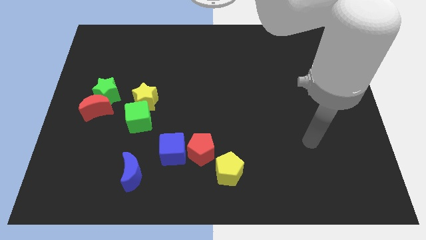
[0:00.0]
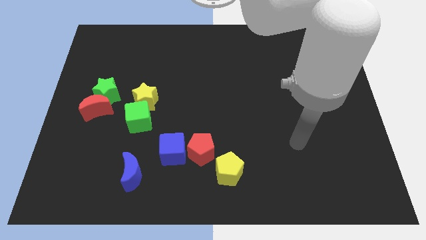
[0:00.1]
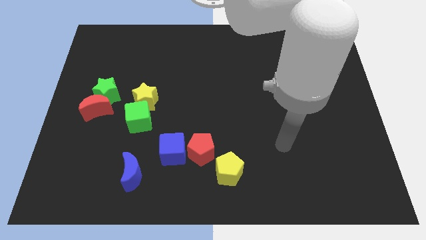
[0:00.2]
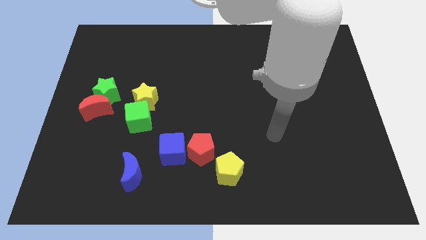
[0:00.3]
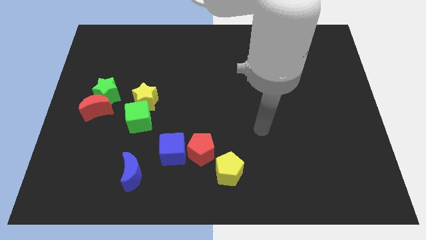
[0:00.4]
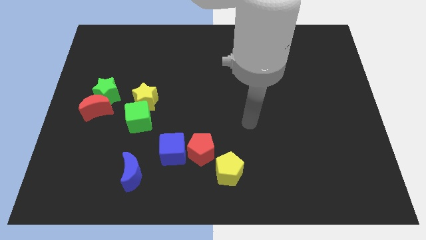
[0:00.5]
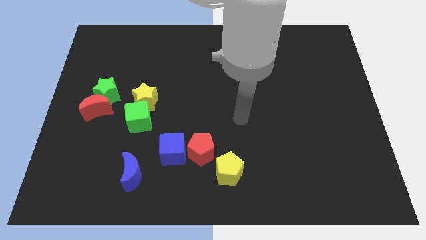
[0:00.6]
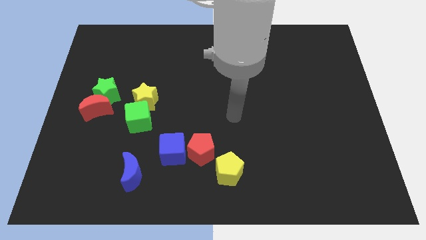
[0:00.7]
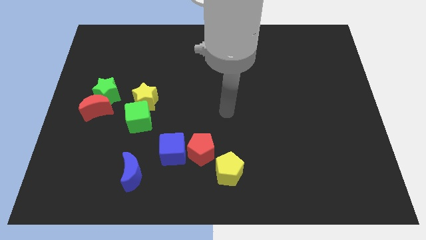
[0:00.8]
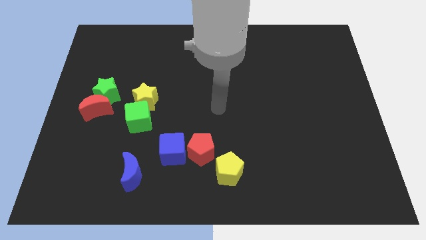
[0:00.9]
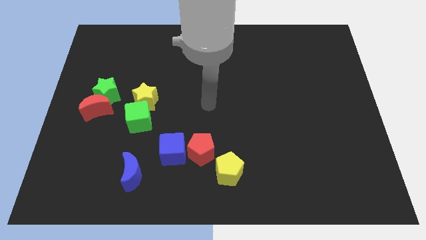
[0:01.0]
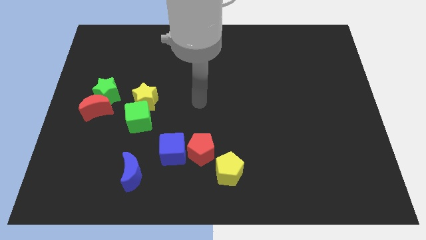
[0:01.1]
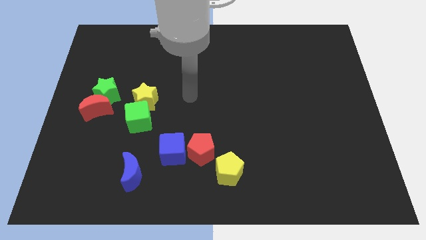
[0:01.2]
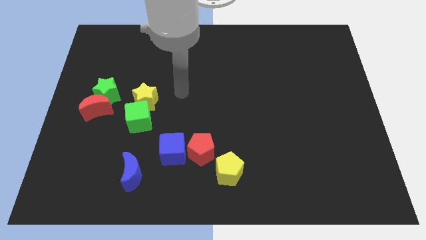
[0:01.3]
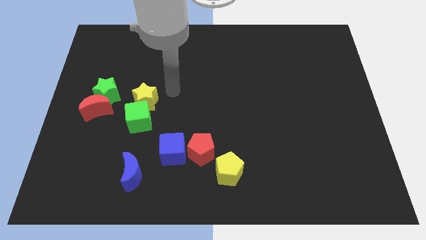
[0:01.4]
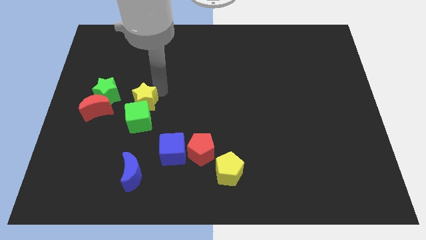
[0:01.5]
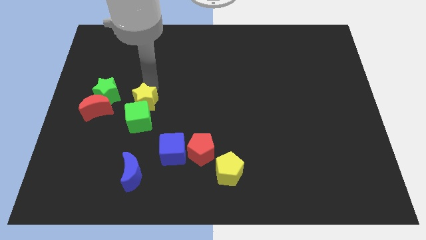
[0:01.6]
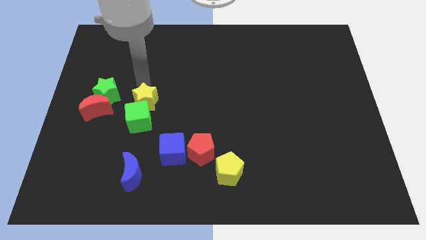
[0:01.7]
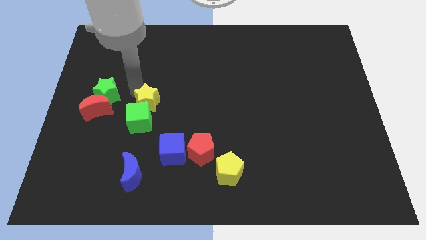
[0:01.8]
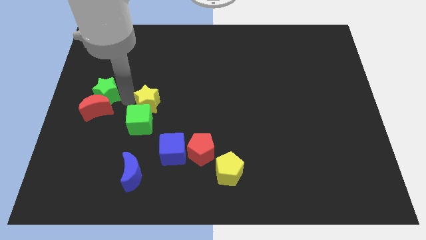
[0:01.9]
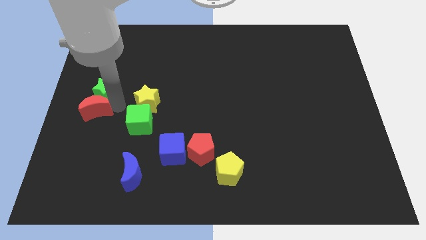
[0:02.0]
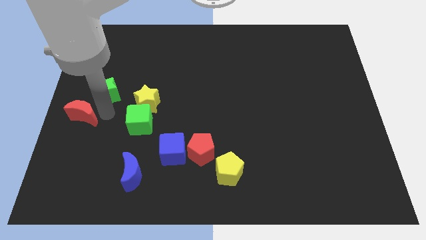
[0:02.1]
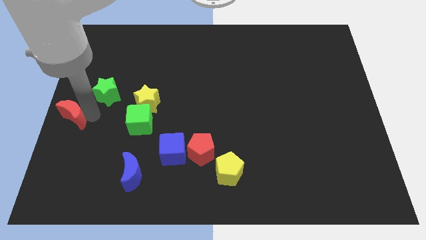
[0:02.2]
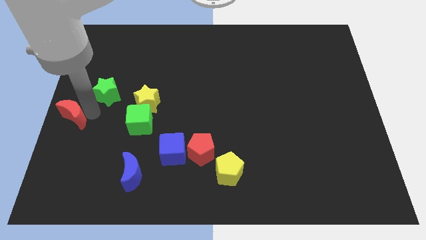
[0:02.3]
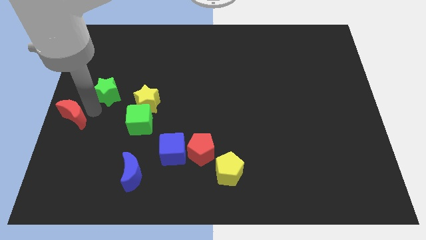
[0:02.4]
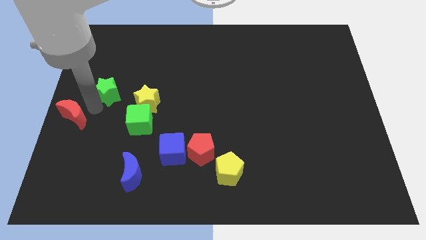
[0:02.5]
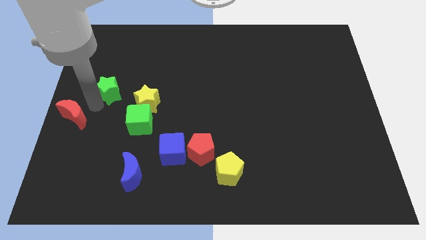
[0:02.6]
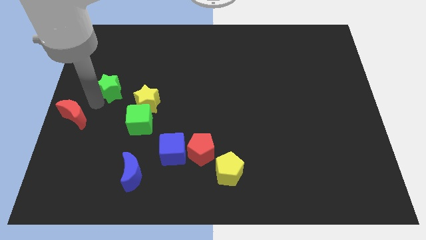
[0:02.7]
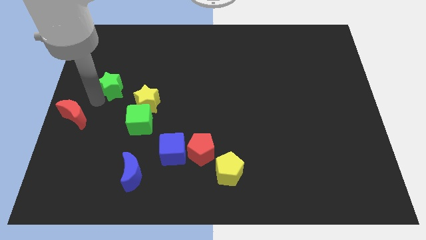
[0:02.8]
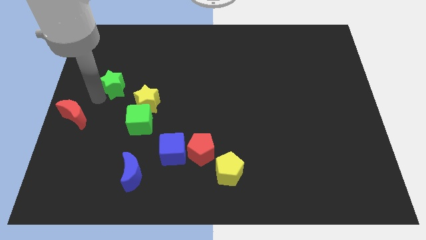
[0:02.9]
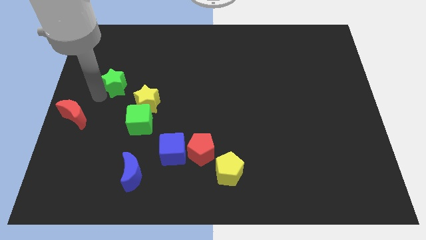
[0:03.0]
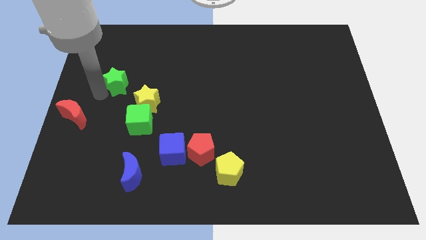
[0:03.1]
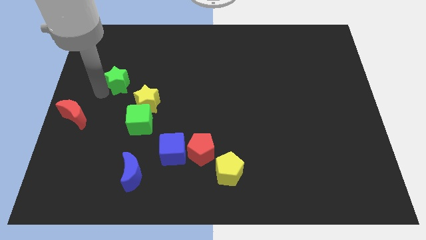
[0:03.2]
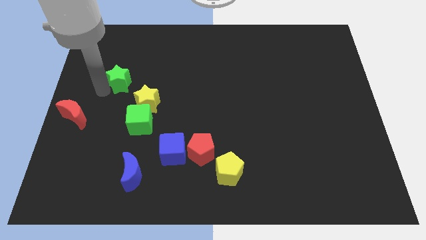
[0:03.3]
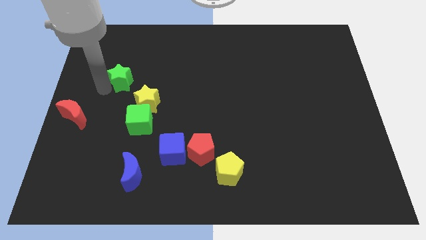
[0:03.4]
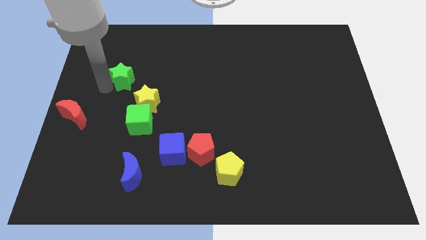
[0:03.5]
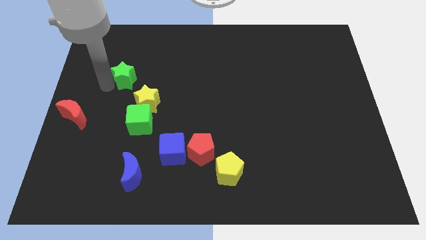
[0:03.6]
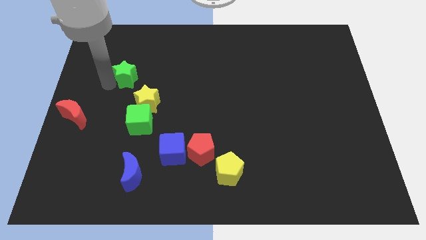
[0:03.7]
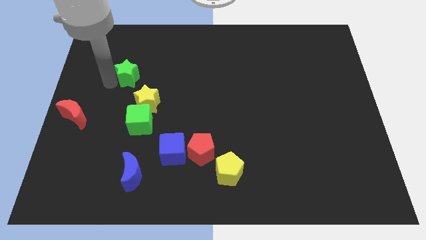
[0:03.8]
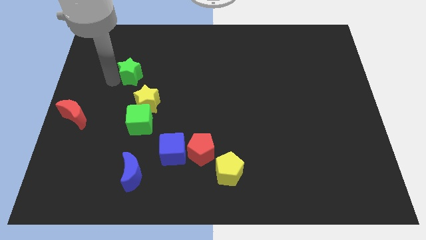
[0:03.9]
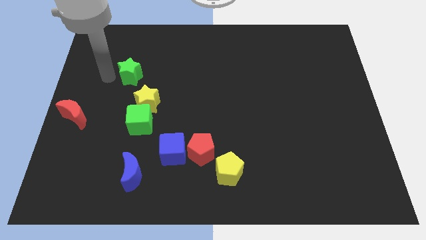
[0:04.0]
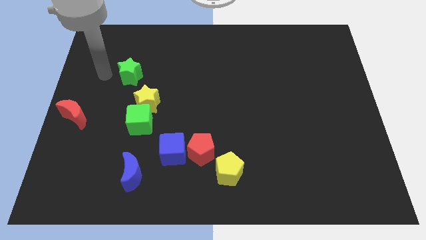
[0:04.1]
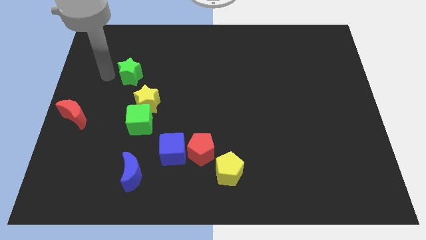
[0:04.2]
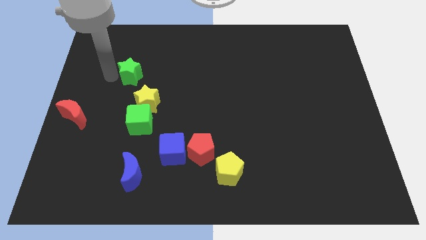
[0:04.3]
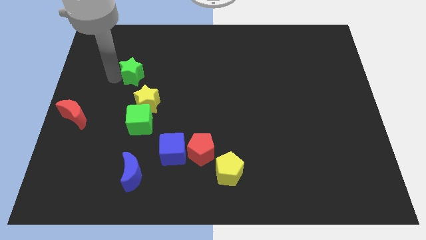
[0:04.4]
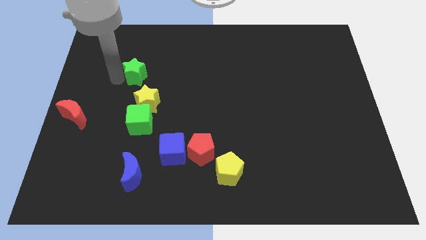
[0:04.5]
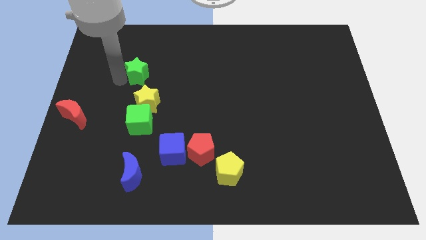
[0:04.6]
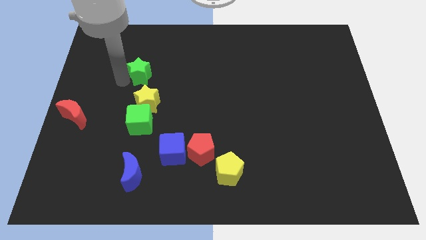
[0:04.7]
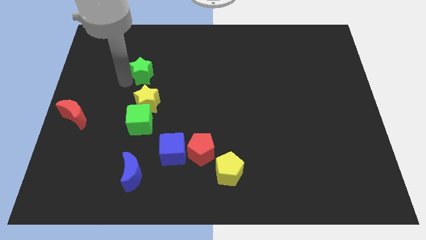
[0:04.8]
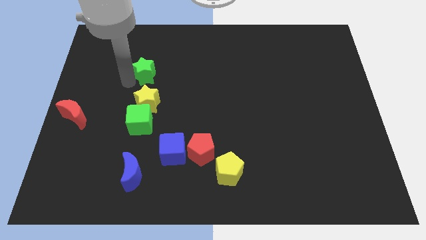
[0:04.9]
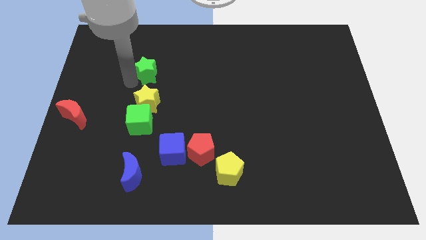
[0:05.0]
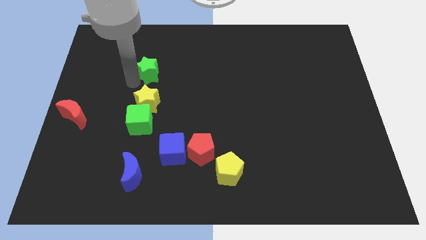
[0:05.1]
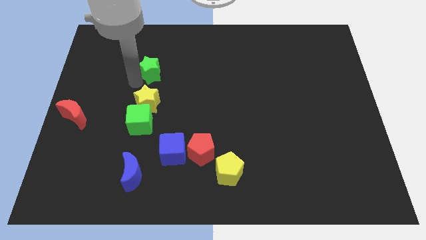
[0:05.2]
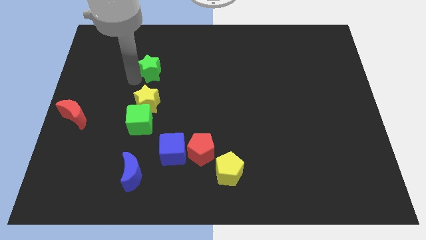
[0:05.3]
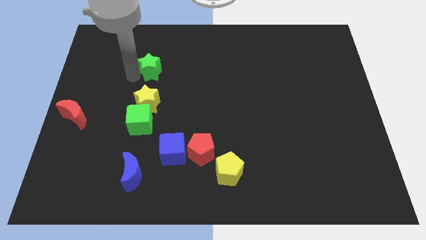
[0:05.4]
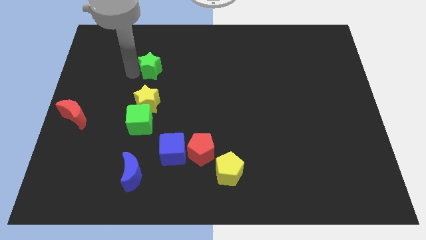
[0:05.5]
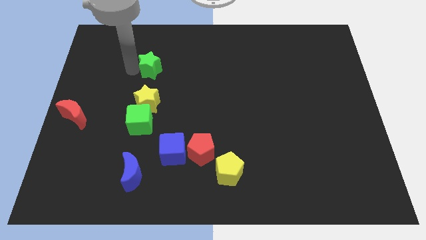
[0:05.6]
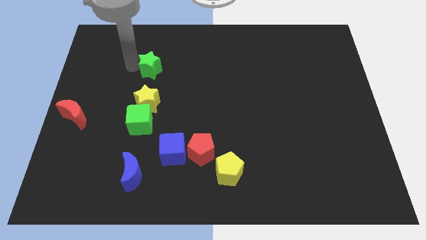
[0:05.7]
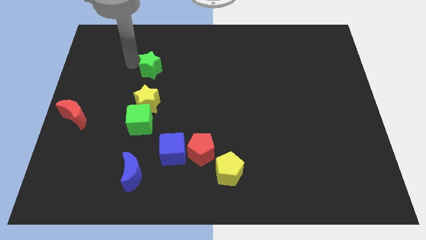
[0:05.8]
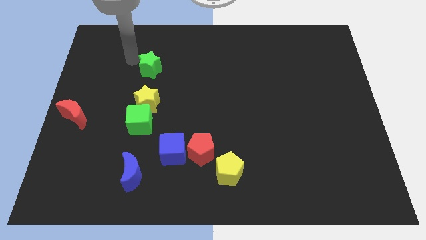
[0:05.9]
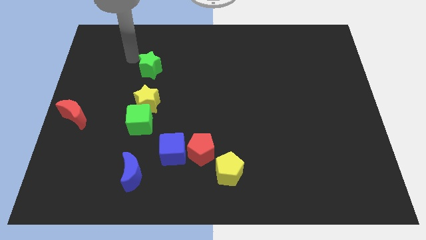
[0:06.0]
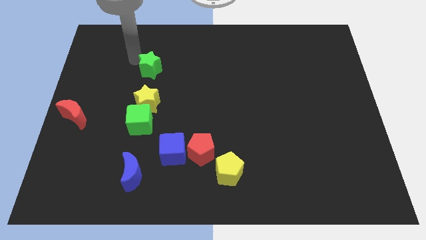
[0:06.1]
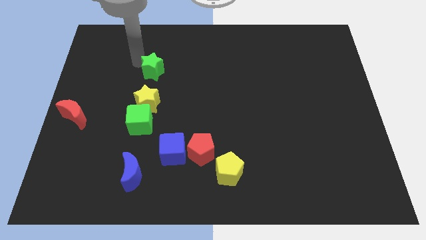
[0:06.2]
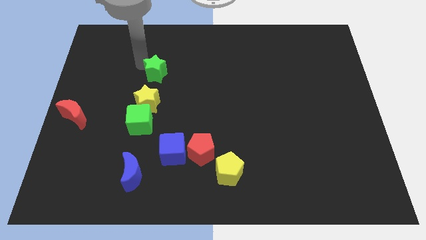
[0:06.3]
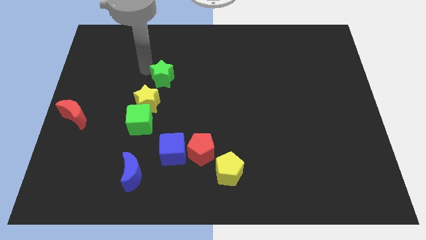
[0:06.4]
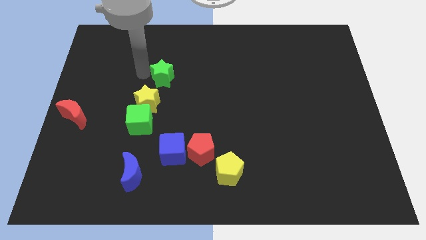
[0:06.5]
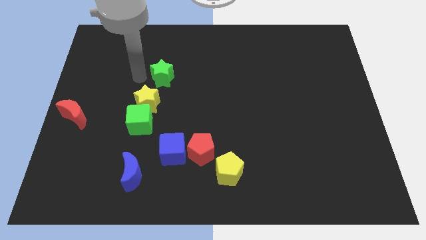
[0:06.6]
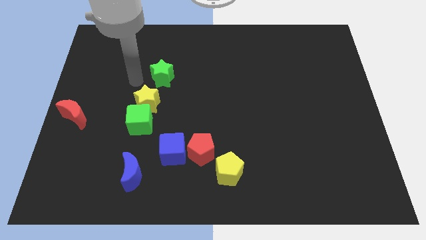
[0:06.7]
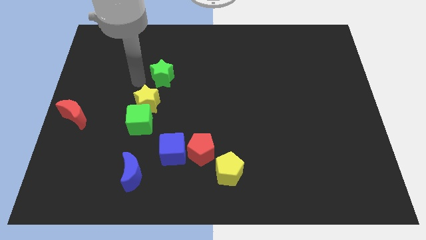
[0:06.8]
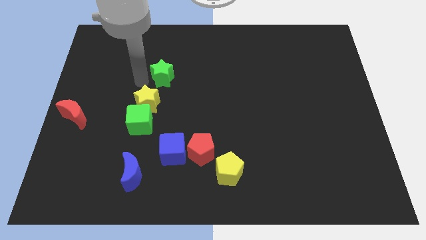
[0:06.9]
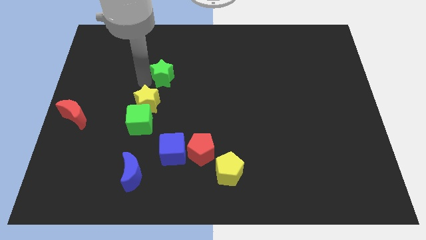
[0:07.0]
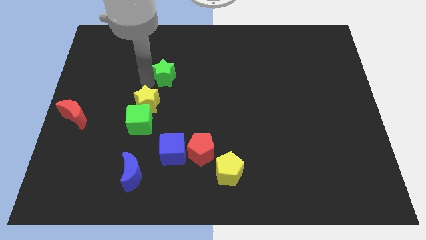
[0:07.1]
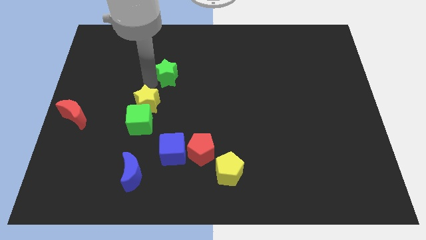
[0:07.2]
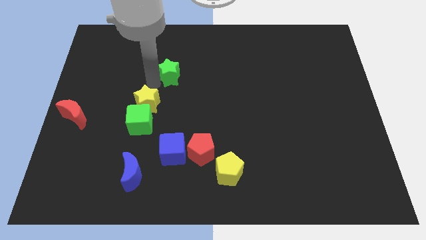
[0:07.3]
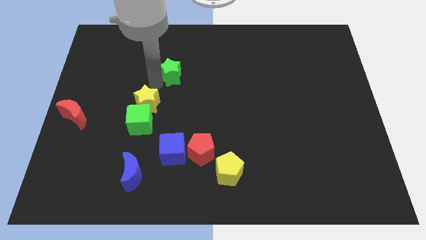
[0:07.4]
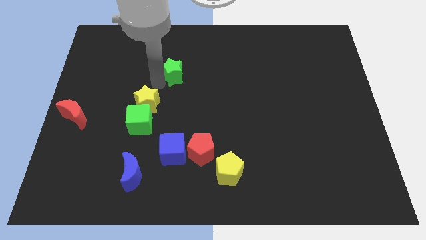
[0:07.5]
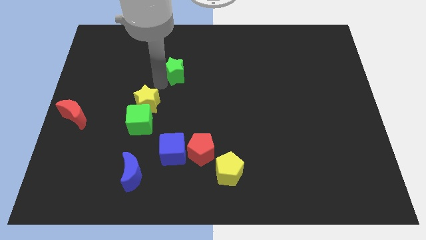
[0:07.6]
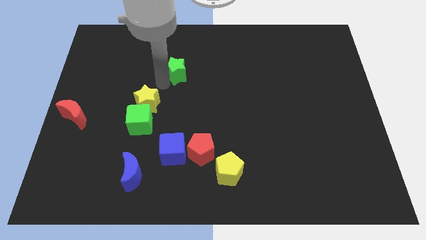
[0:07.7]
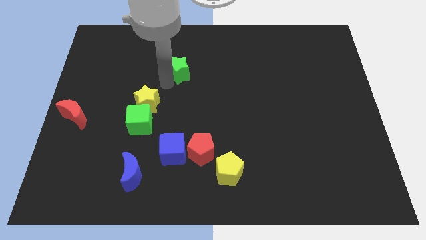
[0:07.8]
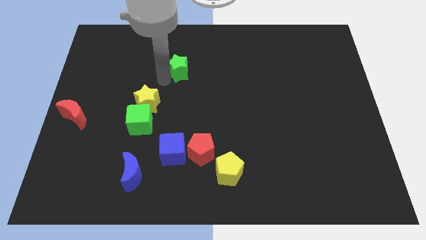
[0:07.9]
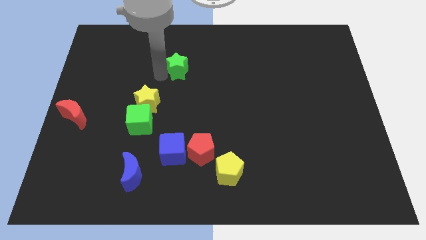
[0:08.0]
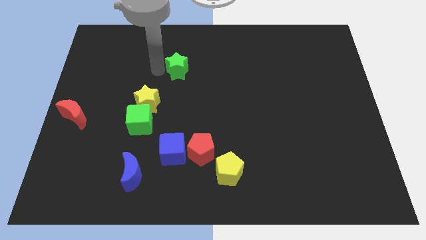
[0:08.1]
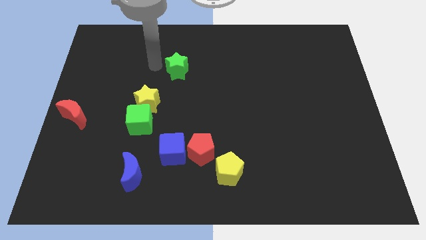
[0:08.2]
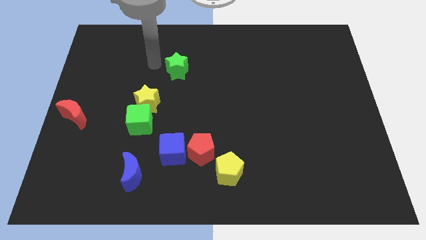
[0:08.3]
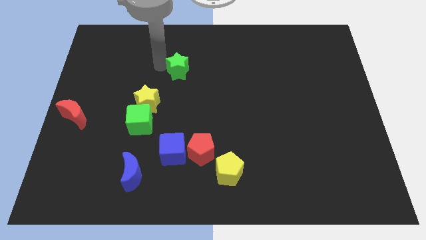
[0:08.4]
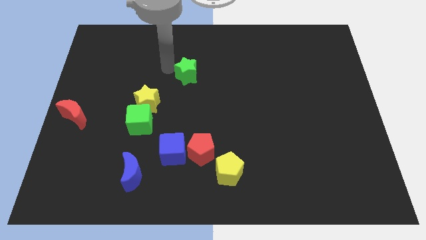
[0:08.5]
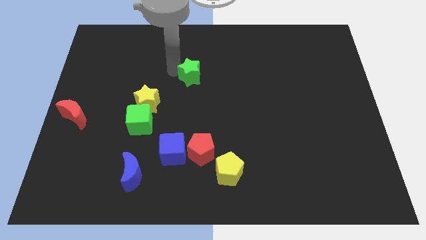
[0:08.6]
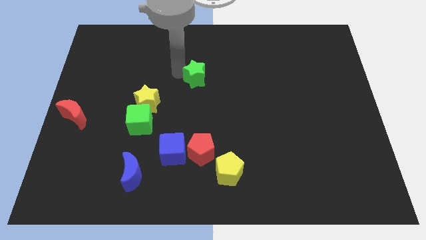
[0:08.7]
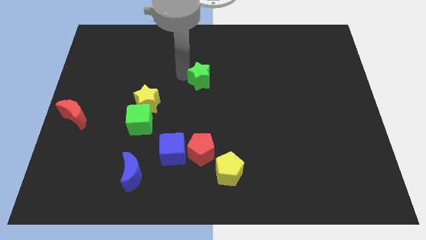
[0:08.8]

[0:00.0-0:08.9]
slide the green star to the right
